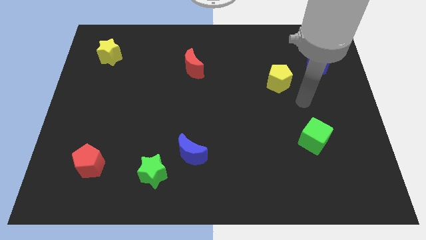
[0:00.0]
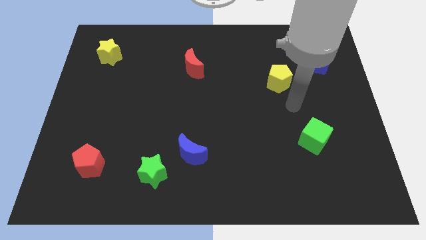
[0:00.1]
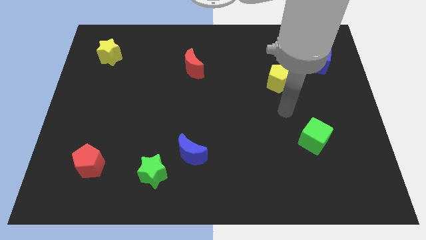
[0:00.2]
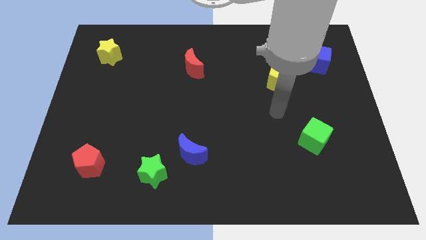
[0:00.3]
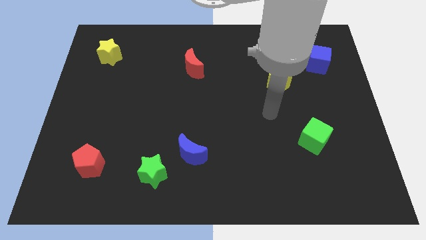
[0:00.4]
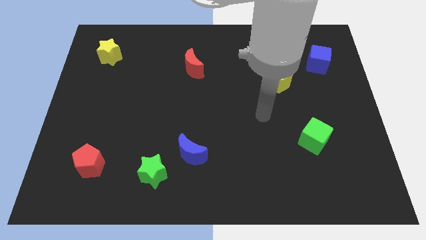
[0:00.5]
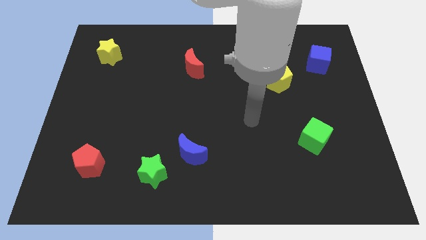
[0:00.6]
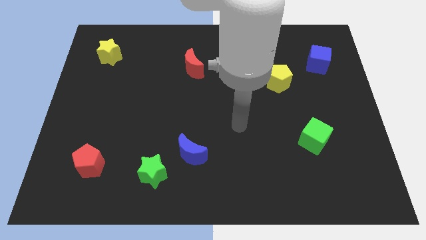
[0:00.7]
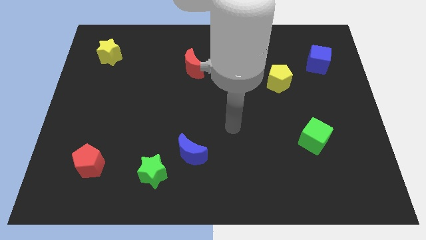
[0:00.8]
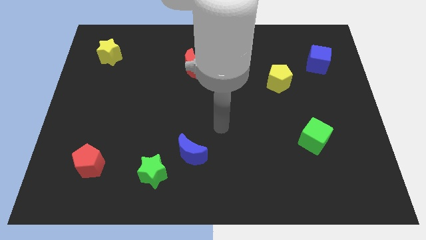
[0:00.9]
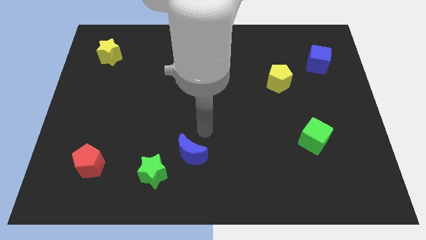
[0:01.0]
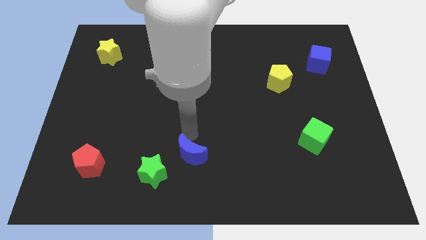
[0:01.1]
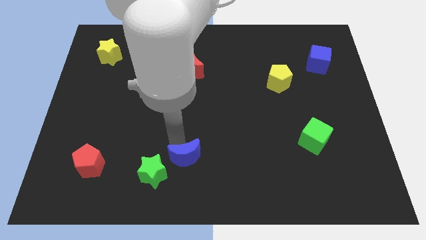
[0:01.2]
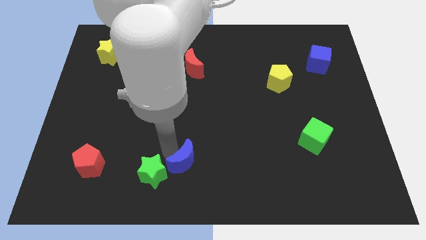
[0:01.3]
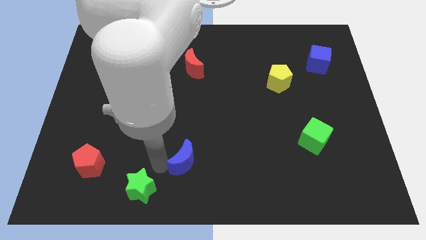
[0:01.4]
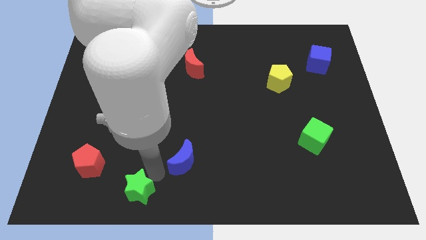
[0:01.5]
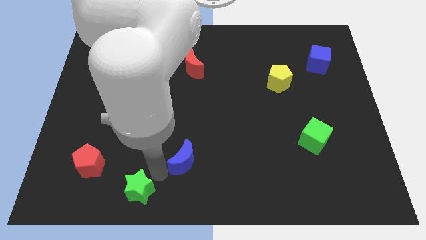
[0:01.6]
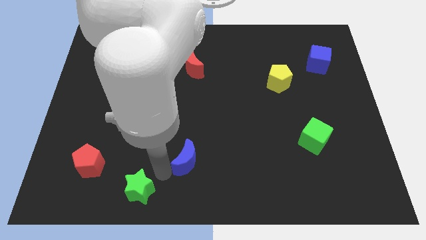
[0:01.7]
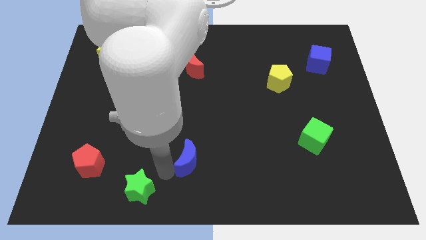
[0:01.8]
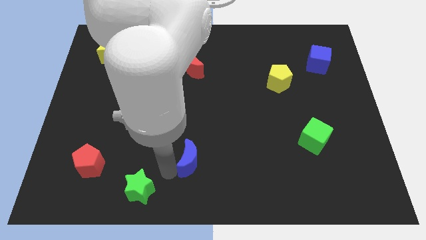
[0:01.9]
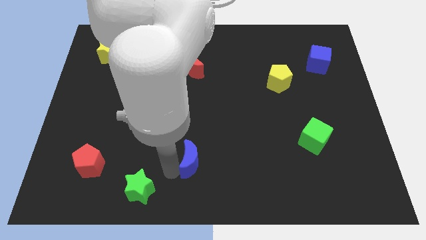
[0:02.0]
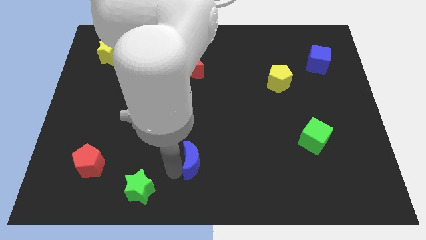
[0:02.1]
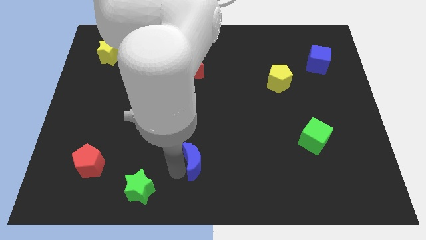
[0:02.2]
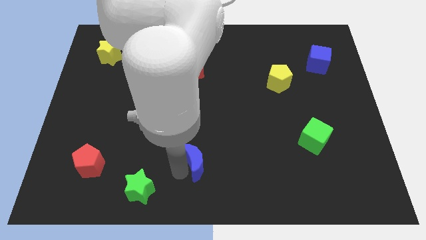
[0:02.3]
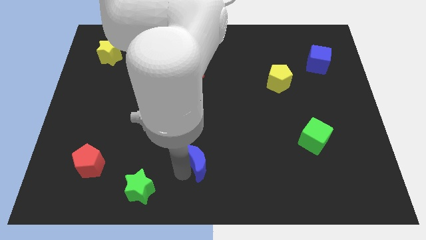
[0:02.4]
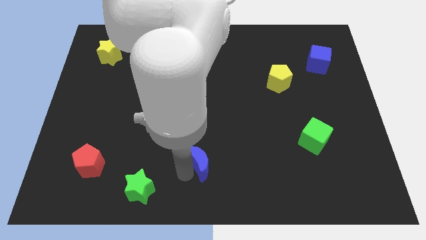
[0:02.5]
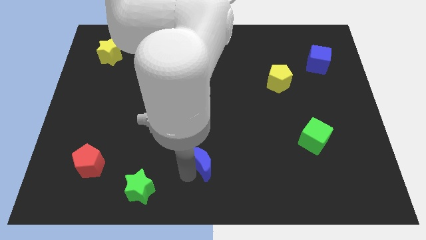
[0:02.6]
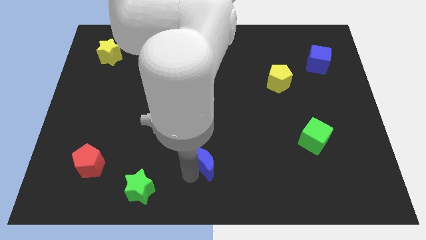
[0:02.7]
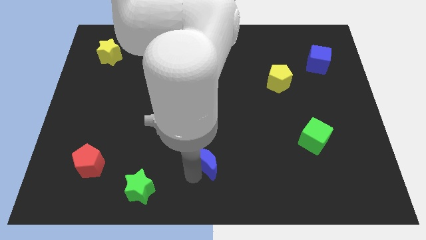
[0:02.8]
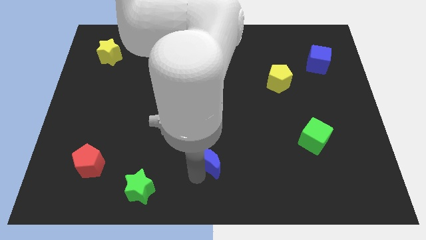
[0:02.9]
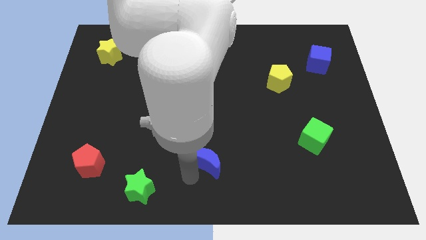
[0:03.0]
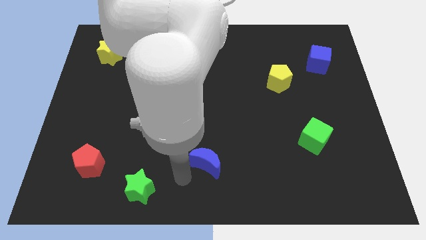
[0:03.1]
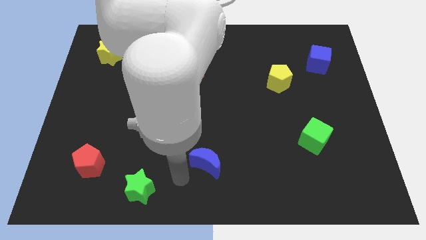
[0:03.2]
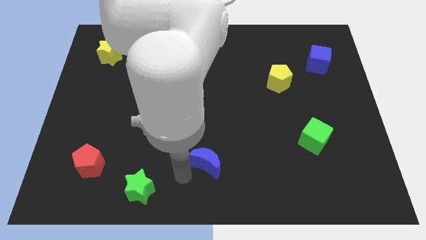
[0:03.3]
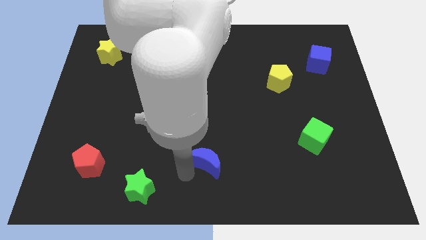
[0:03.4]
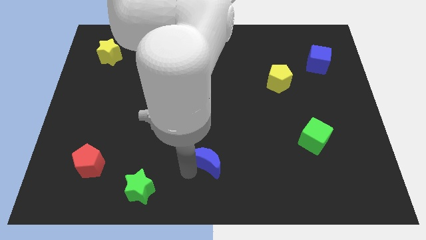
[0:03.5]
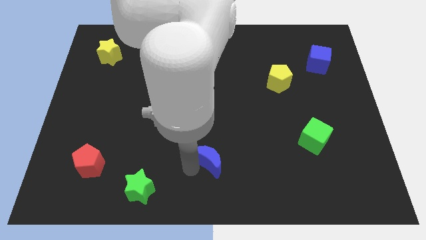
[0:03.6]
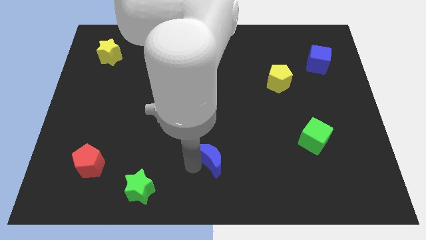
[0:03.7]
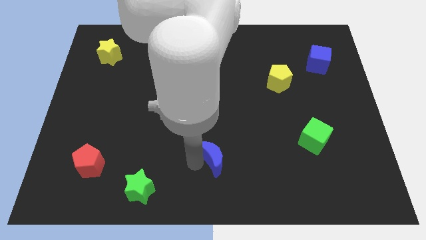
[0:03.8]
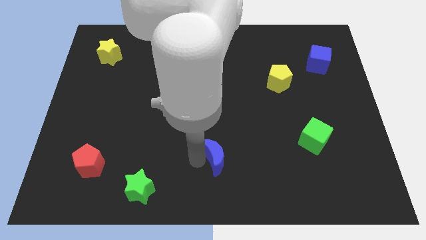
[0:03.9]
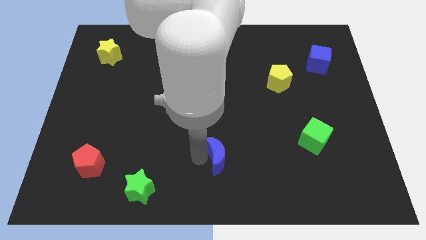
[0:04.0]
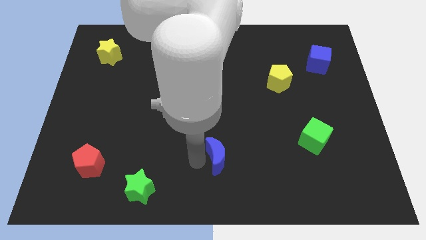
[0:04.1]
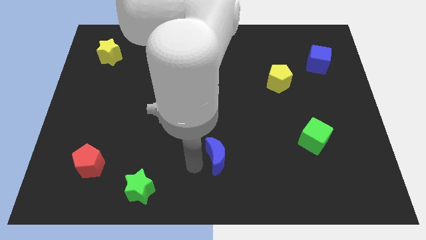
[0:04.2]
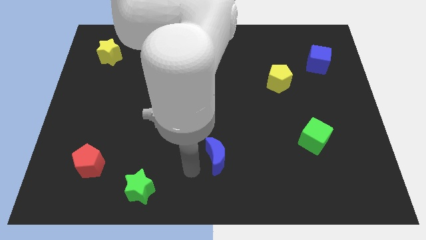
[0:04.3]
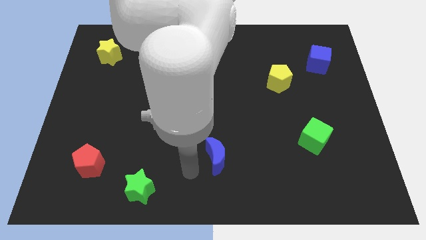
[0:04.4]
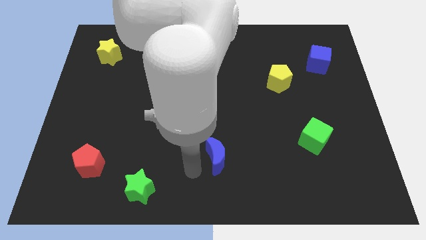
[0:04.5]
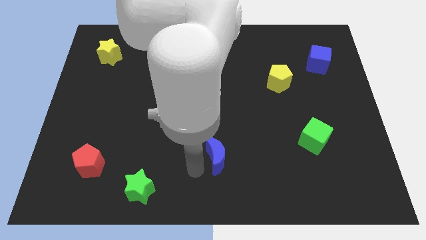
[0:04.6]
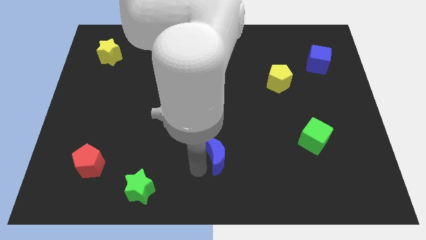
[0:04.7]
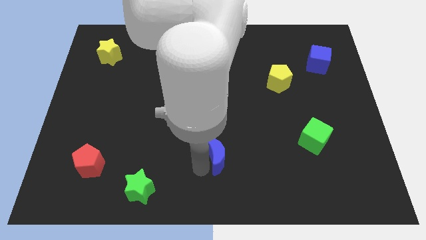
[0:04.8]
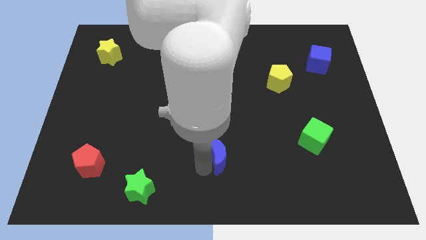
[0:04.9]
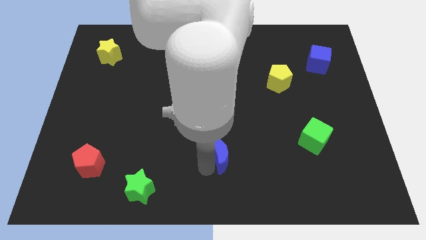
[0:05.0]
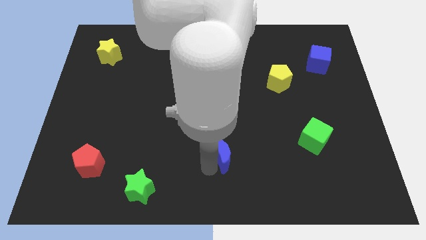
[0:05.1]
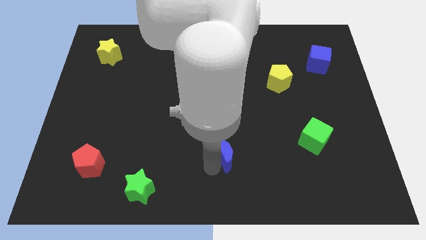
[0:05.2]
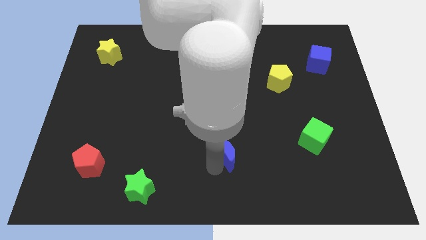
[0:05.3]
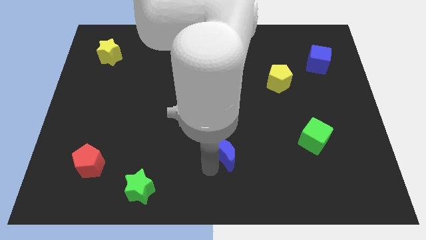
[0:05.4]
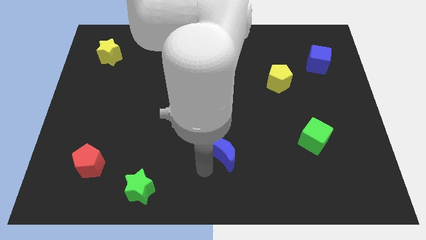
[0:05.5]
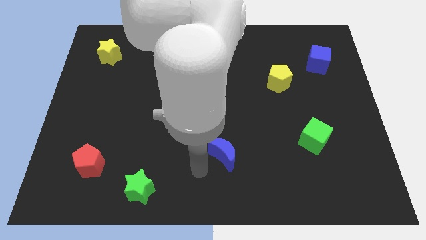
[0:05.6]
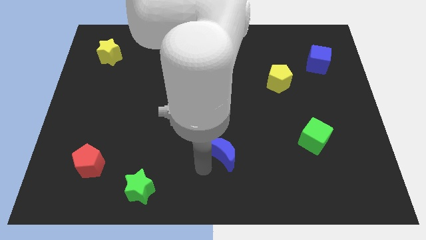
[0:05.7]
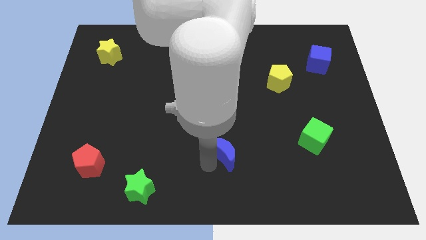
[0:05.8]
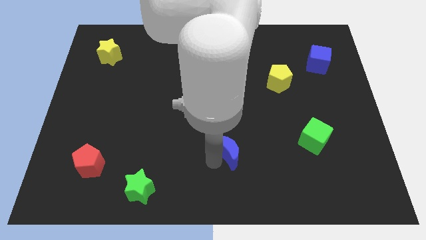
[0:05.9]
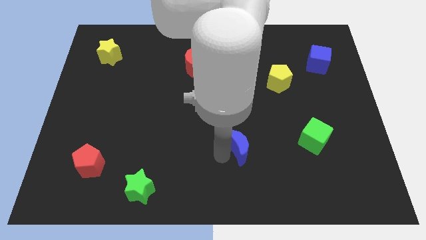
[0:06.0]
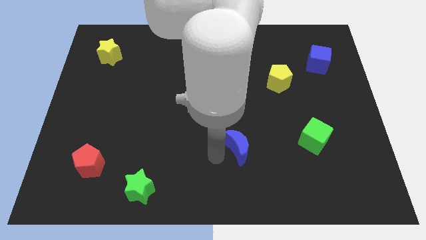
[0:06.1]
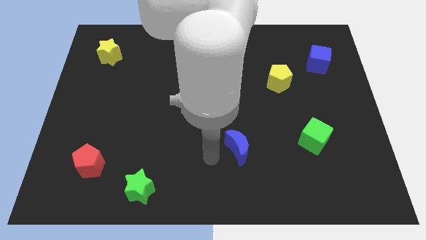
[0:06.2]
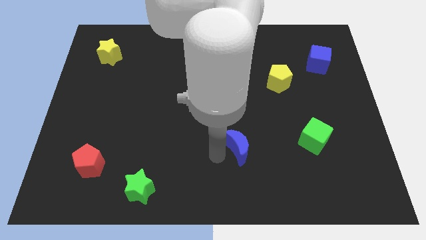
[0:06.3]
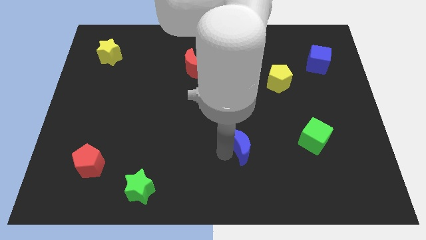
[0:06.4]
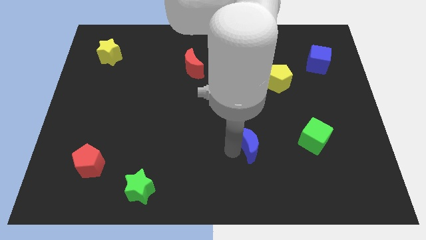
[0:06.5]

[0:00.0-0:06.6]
put the blue moon to the left side of the green cube
